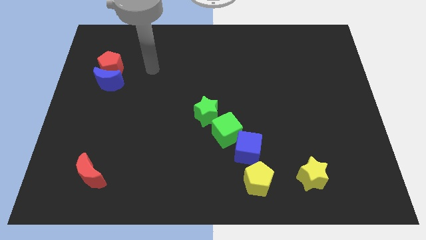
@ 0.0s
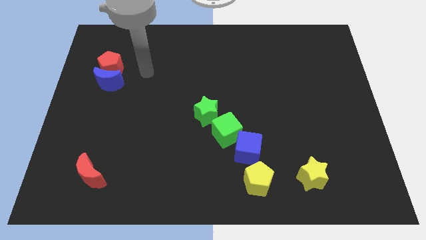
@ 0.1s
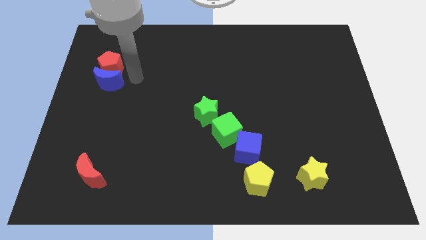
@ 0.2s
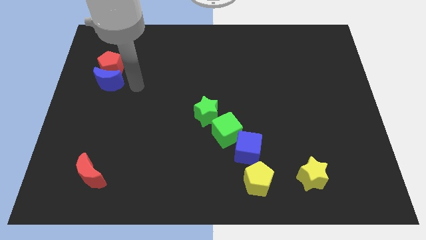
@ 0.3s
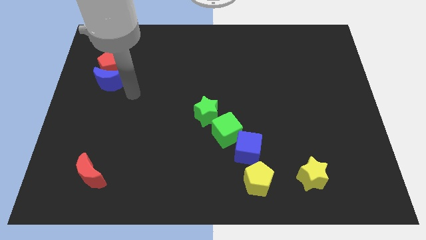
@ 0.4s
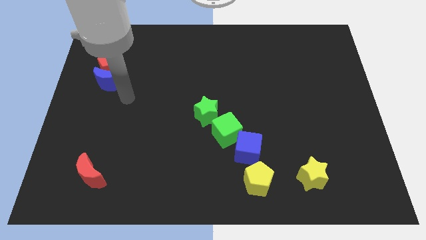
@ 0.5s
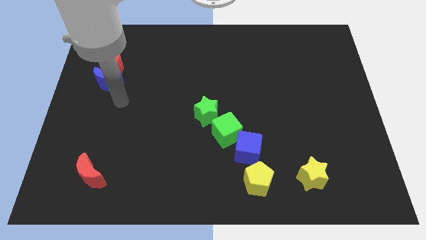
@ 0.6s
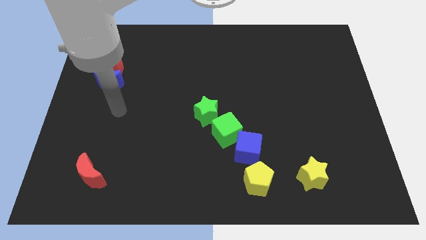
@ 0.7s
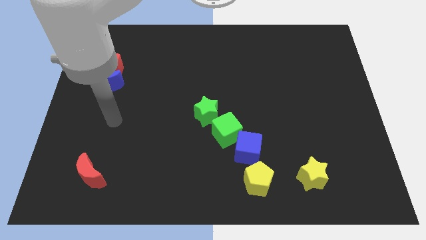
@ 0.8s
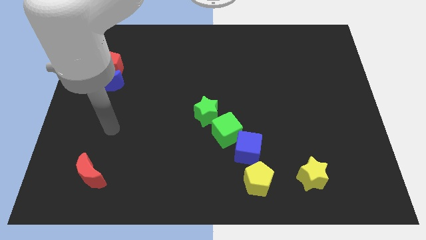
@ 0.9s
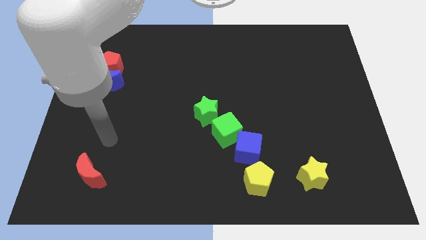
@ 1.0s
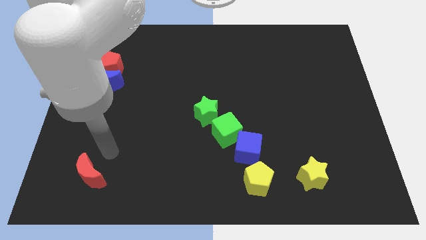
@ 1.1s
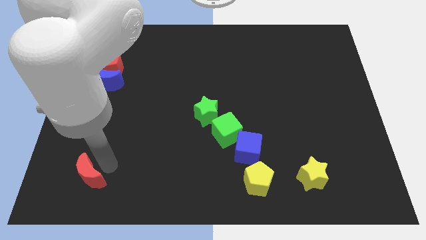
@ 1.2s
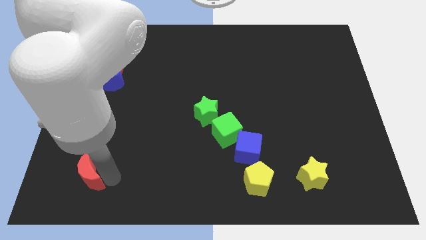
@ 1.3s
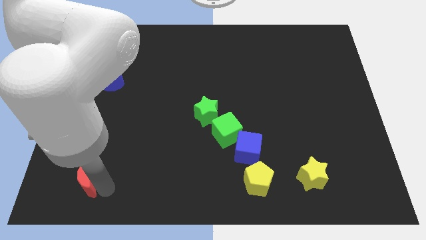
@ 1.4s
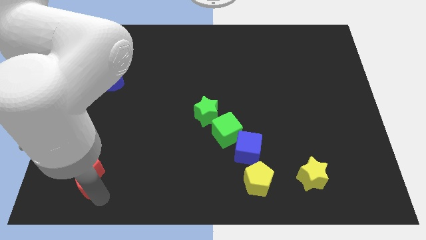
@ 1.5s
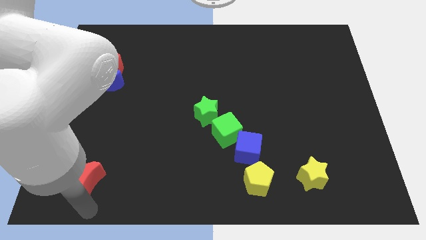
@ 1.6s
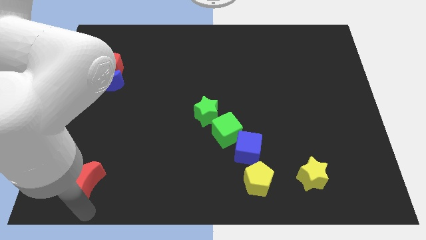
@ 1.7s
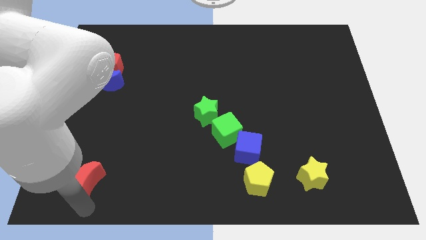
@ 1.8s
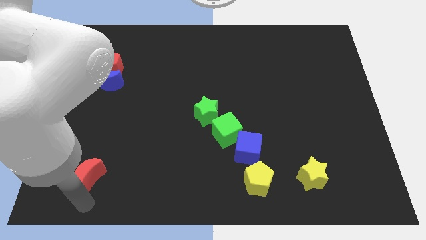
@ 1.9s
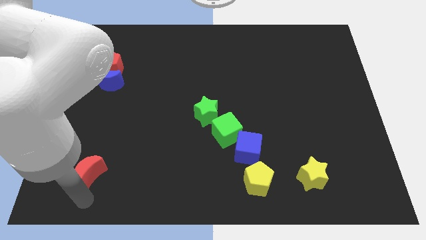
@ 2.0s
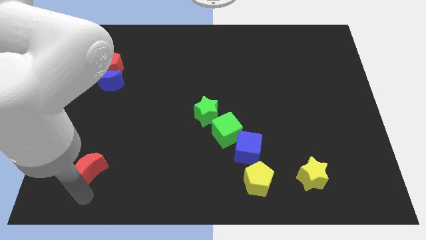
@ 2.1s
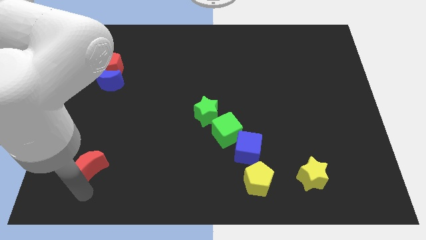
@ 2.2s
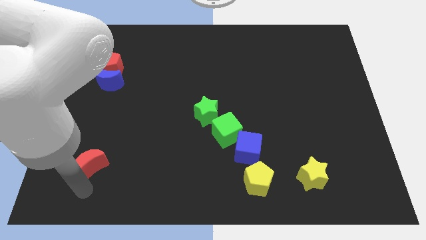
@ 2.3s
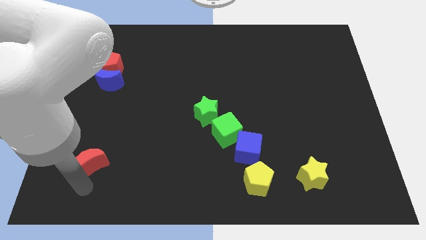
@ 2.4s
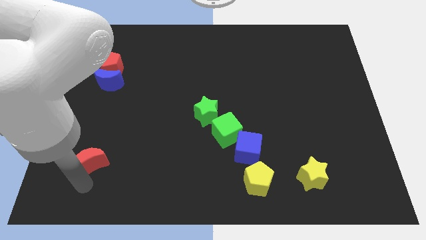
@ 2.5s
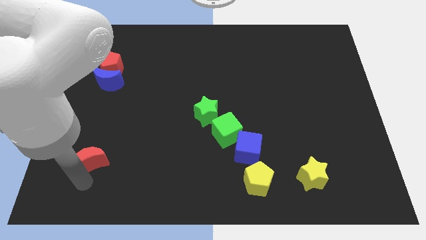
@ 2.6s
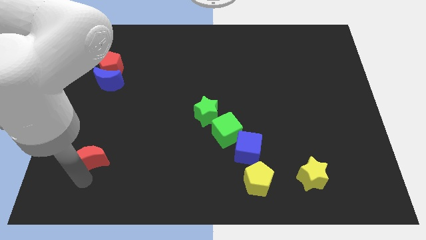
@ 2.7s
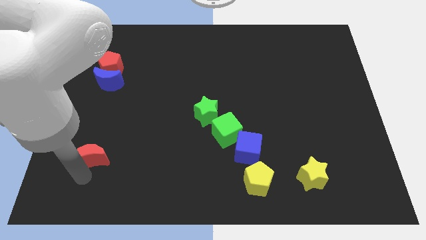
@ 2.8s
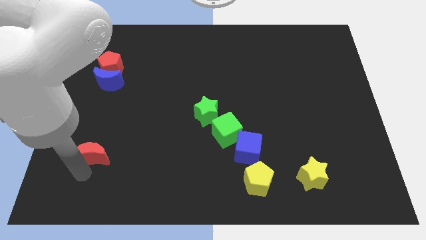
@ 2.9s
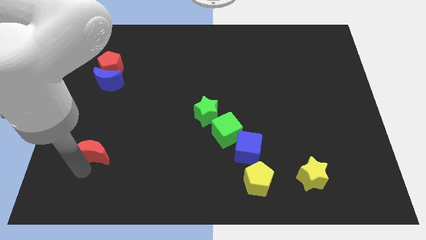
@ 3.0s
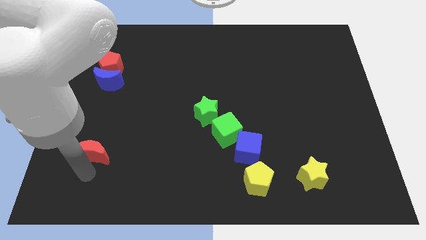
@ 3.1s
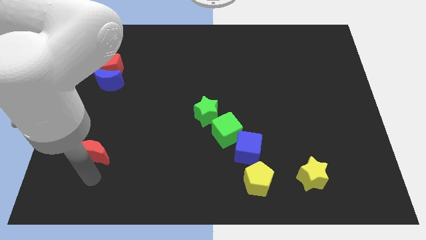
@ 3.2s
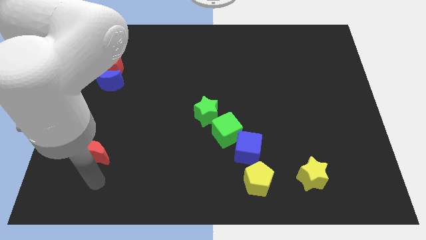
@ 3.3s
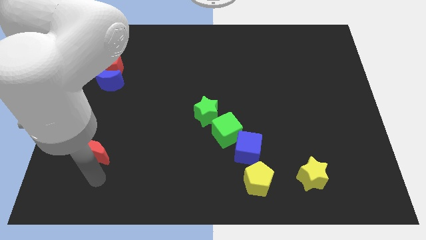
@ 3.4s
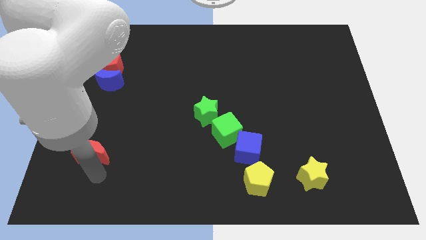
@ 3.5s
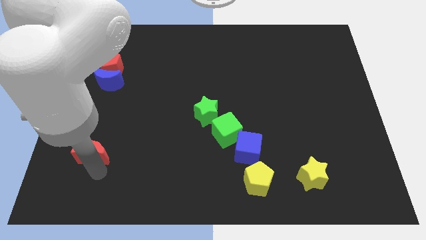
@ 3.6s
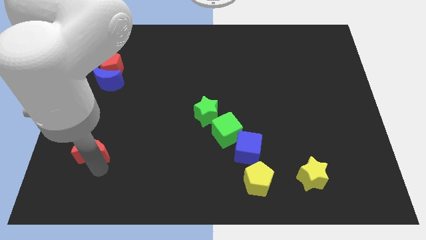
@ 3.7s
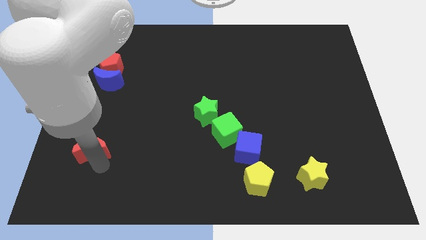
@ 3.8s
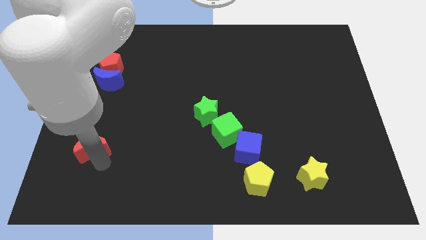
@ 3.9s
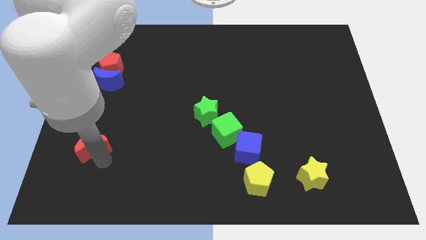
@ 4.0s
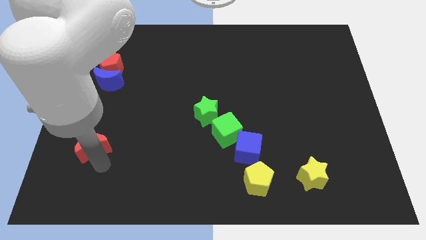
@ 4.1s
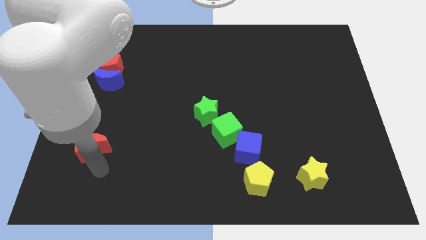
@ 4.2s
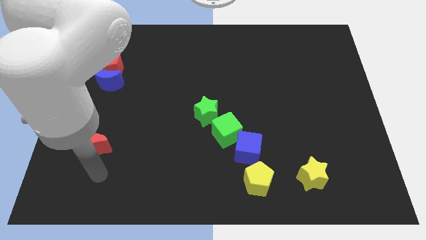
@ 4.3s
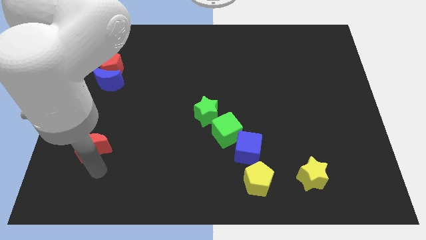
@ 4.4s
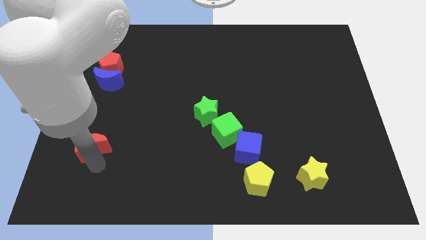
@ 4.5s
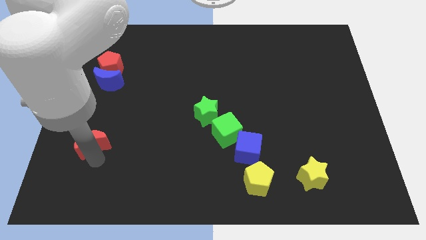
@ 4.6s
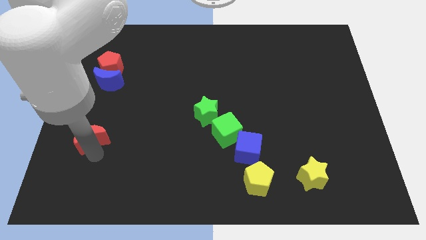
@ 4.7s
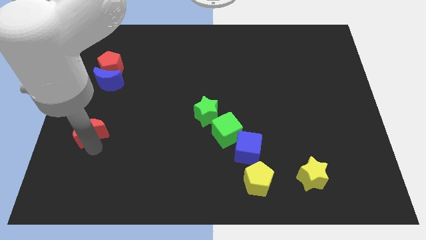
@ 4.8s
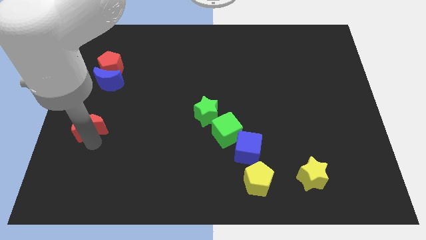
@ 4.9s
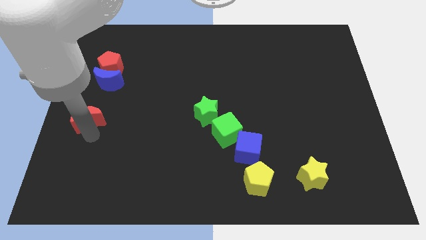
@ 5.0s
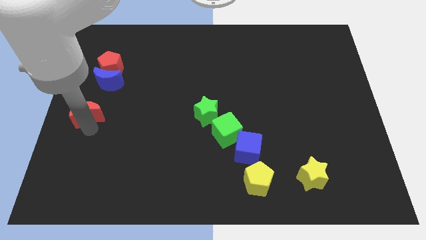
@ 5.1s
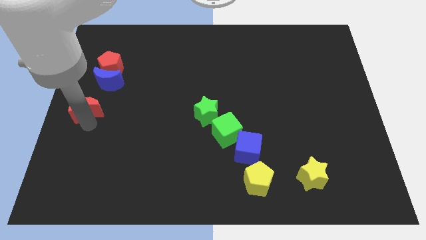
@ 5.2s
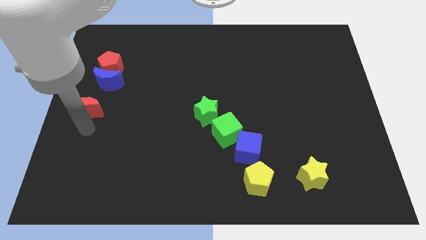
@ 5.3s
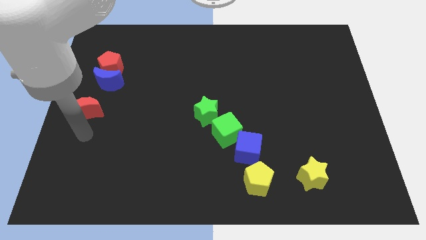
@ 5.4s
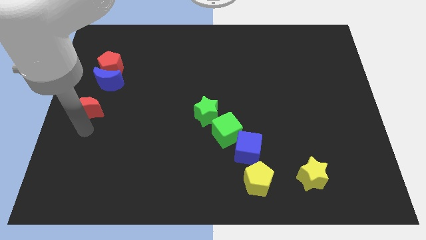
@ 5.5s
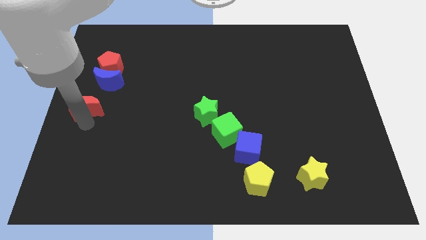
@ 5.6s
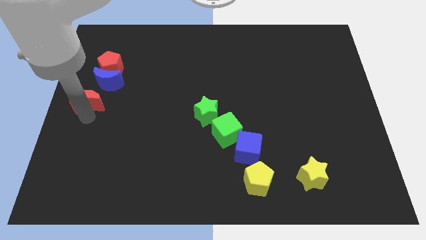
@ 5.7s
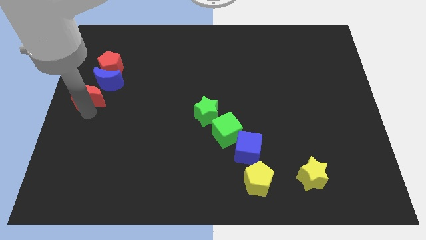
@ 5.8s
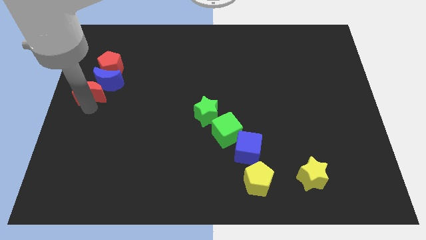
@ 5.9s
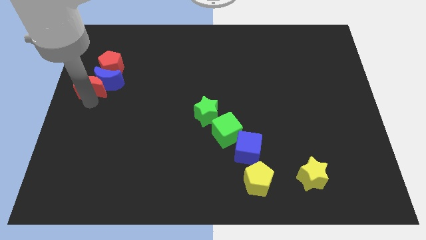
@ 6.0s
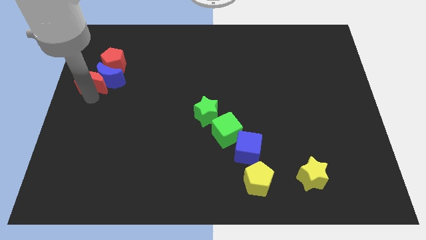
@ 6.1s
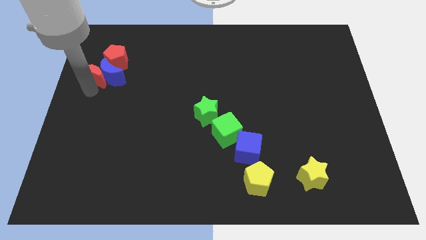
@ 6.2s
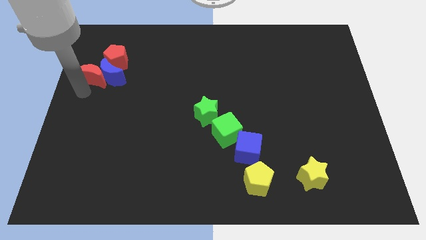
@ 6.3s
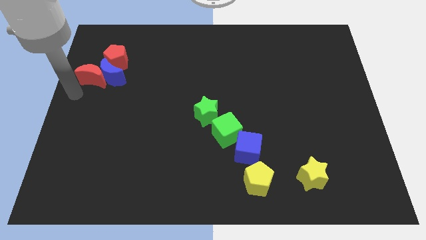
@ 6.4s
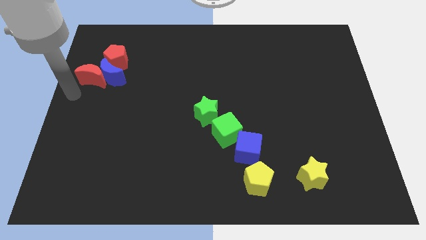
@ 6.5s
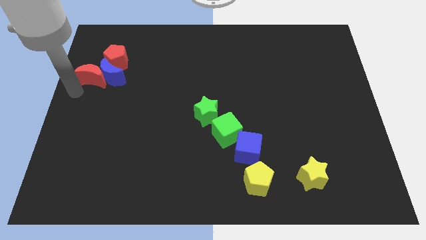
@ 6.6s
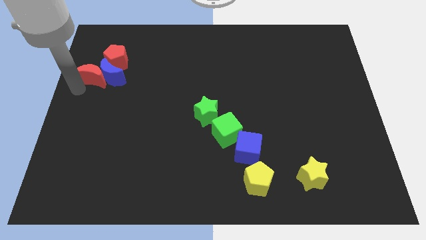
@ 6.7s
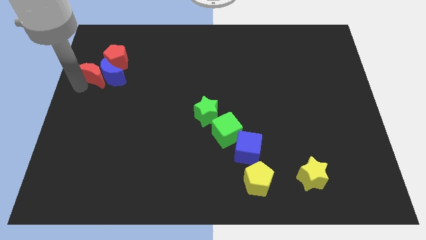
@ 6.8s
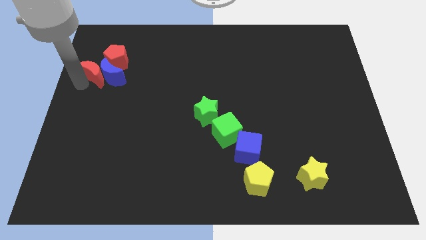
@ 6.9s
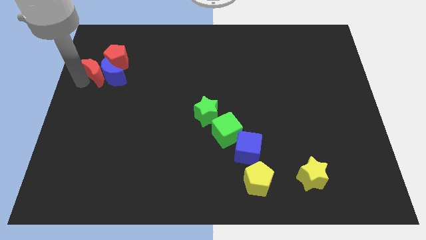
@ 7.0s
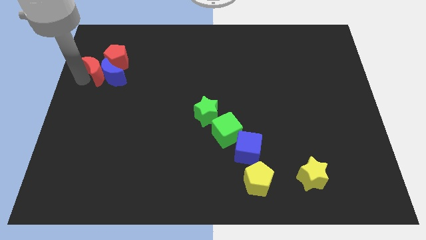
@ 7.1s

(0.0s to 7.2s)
move the red moon next to the red pentagon

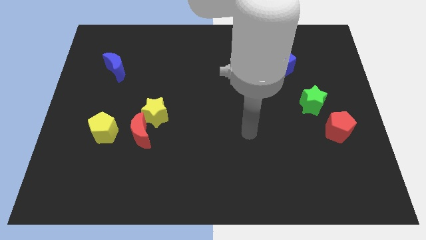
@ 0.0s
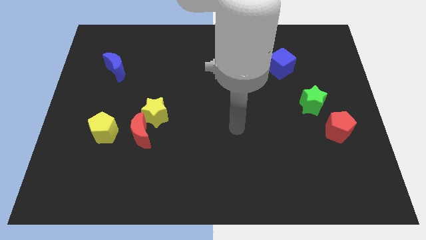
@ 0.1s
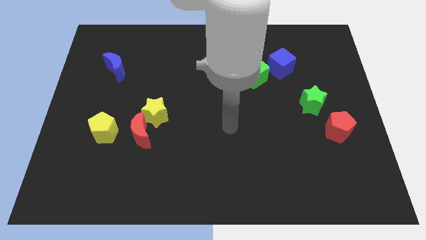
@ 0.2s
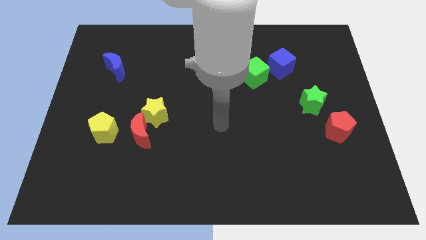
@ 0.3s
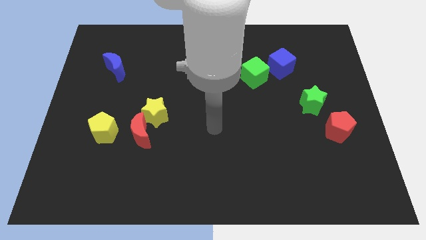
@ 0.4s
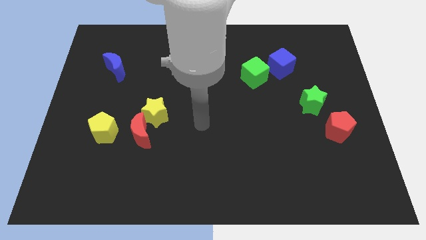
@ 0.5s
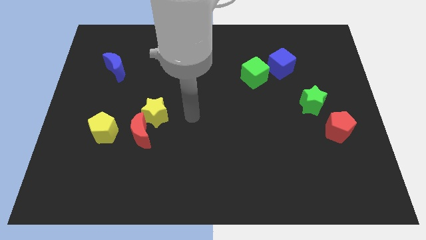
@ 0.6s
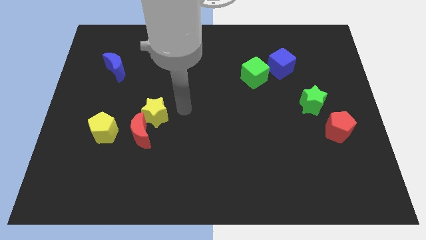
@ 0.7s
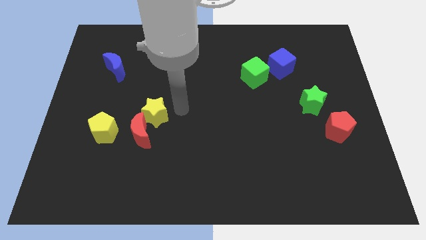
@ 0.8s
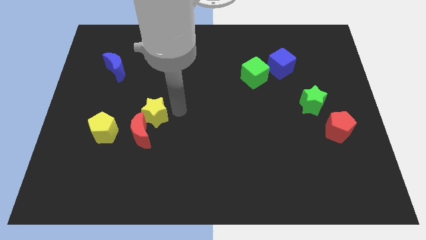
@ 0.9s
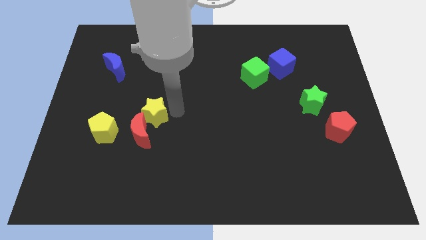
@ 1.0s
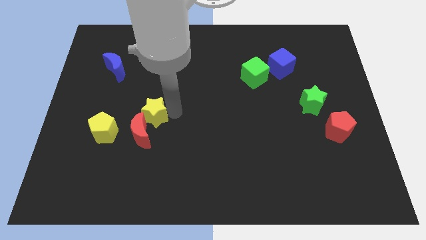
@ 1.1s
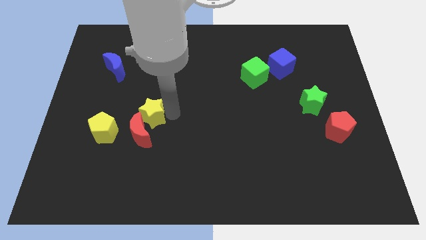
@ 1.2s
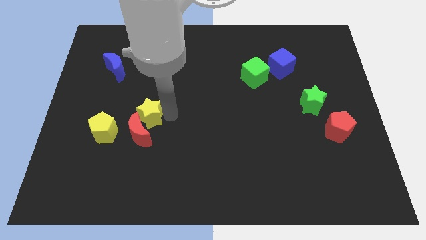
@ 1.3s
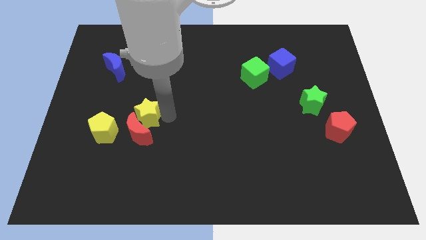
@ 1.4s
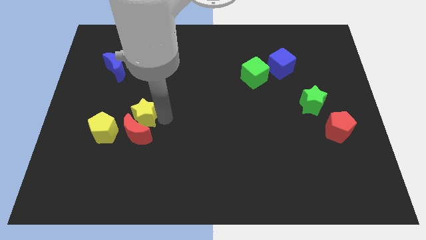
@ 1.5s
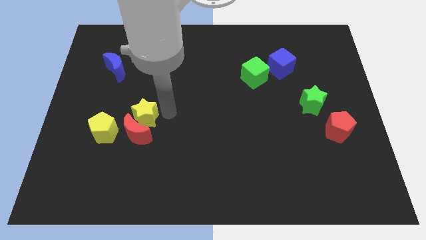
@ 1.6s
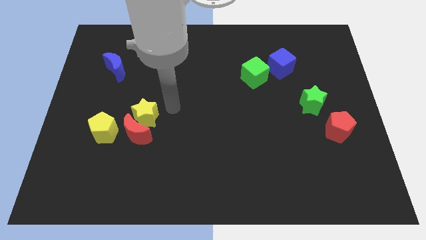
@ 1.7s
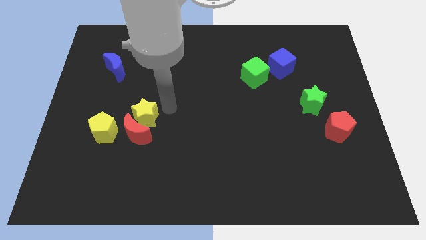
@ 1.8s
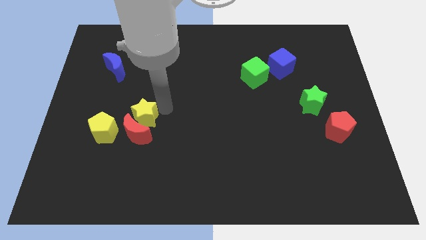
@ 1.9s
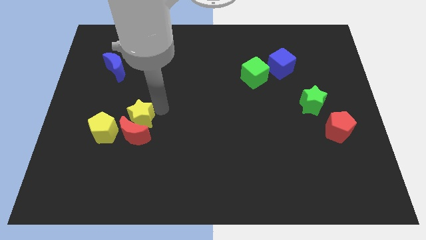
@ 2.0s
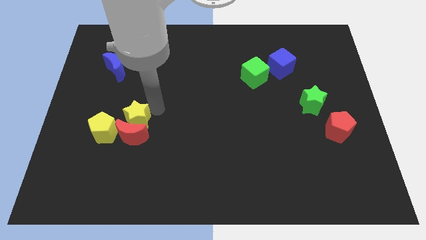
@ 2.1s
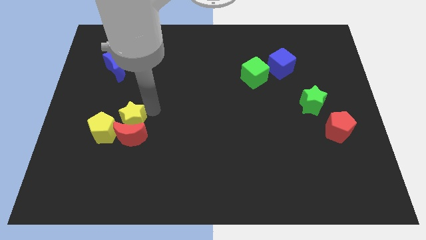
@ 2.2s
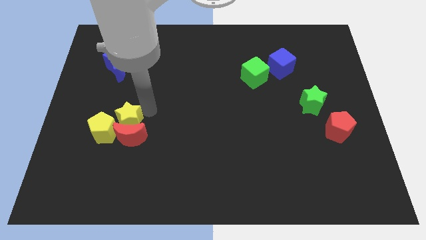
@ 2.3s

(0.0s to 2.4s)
slide the yellow star towards the yellow pentagon
